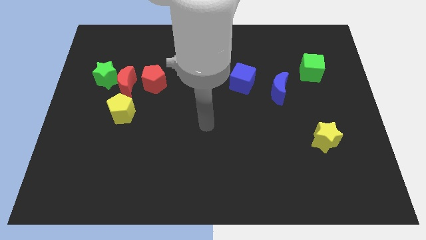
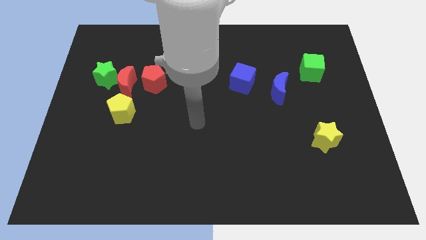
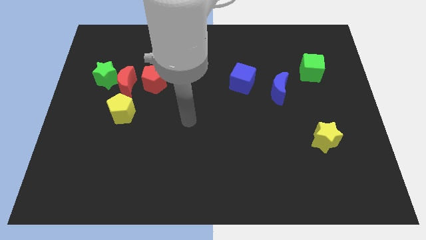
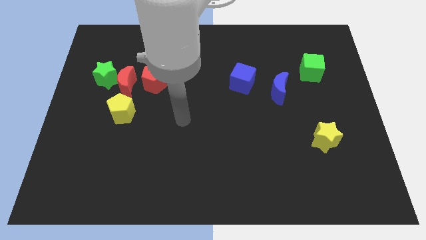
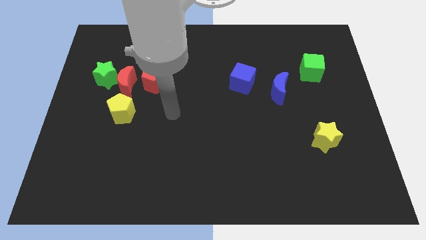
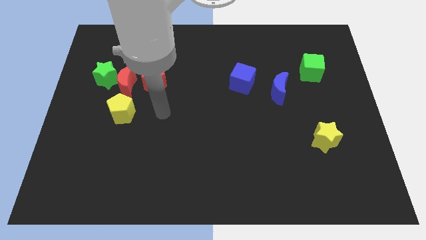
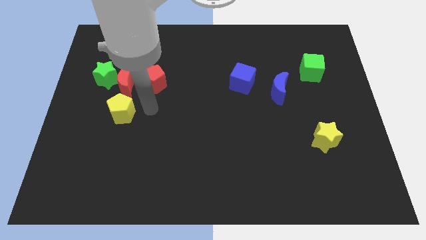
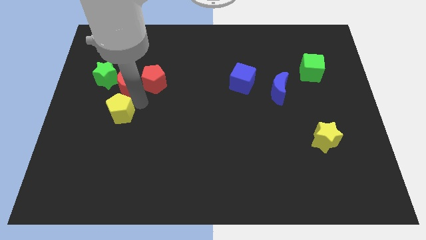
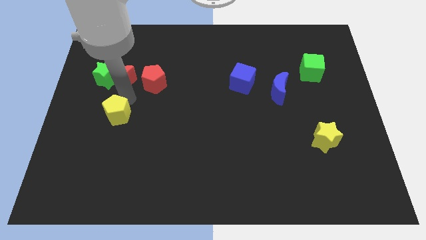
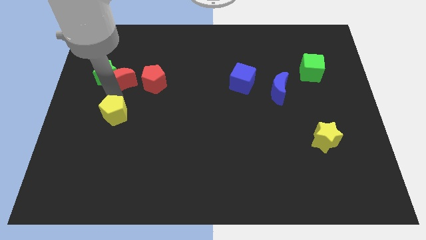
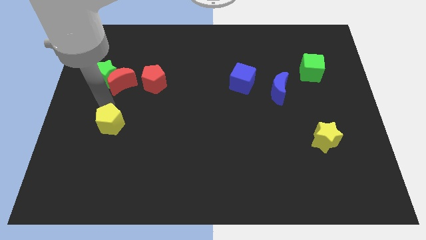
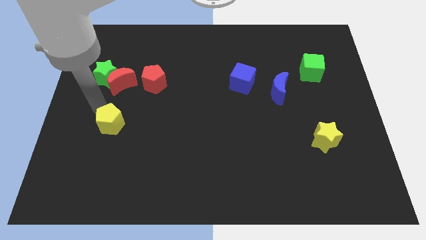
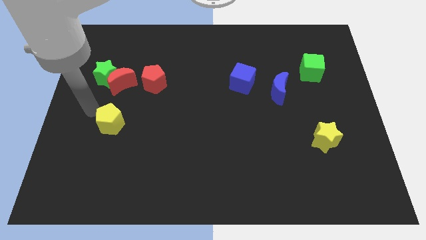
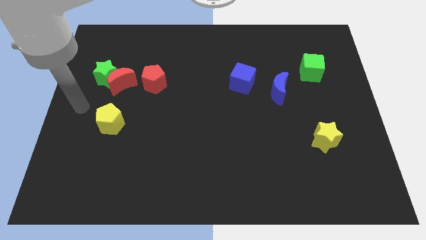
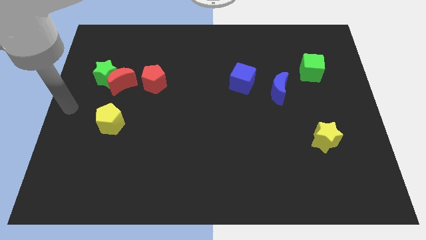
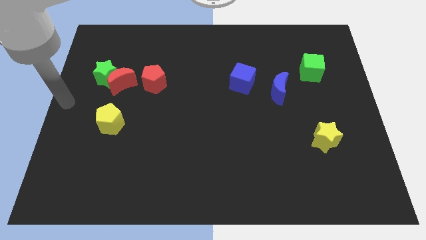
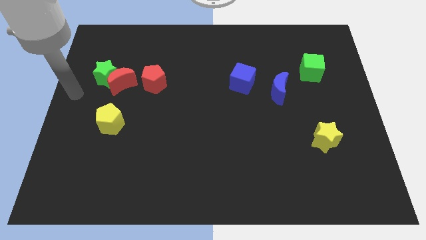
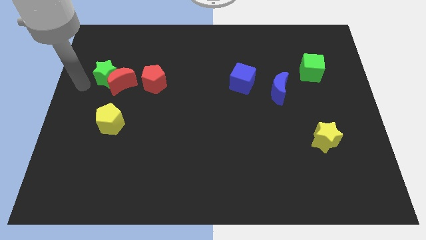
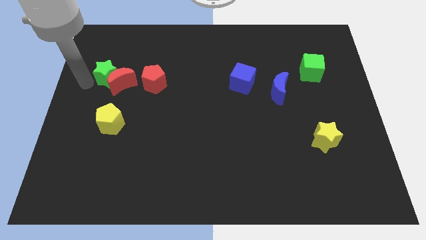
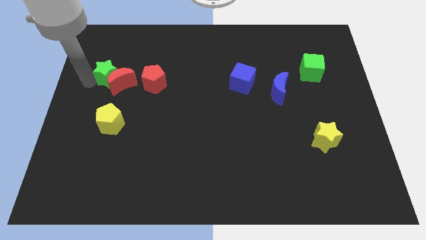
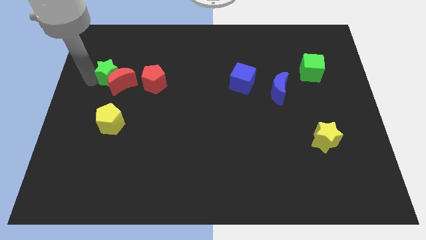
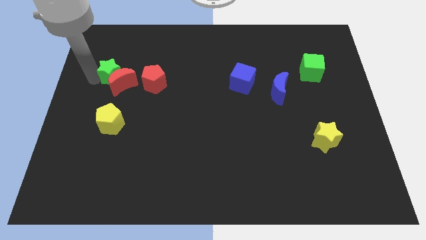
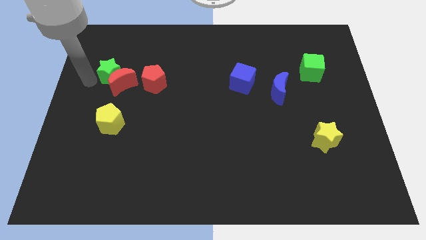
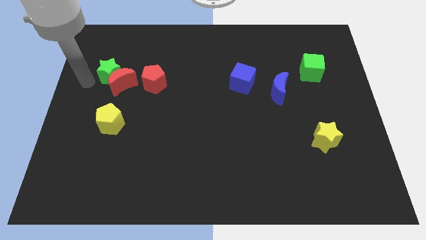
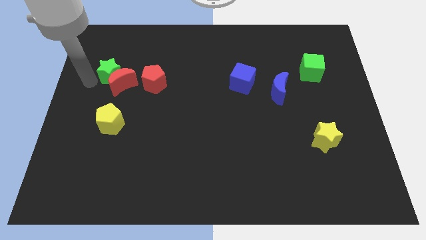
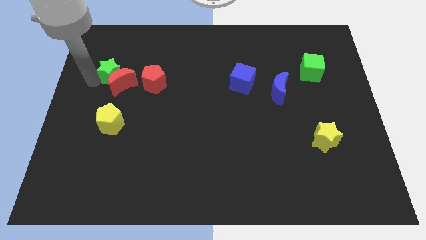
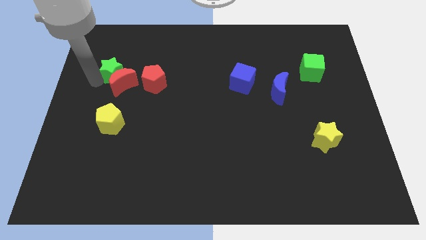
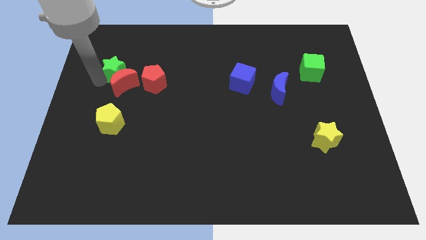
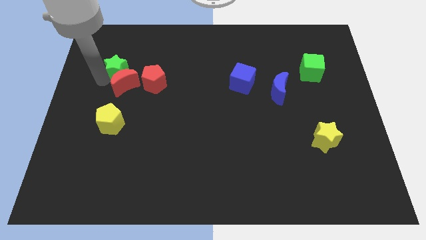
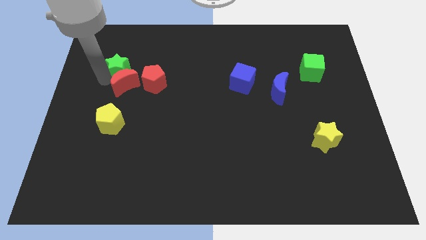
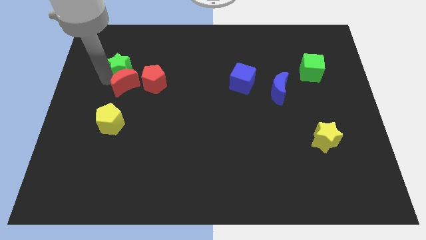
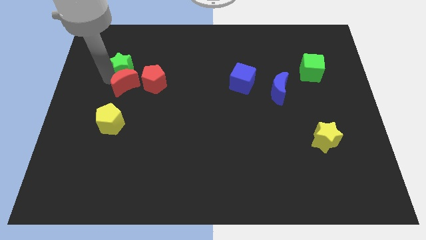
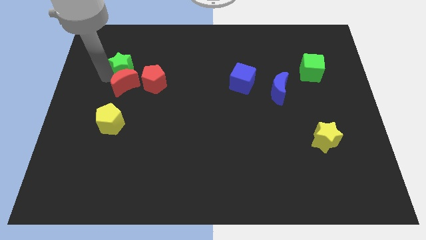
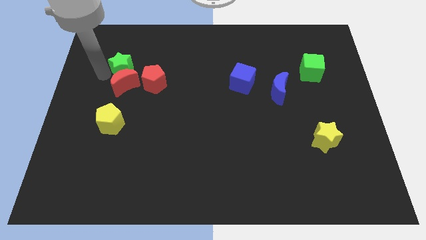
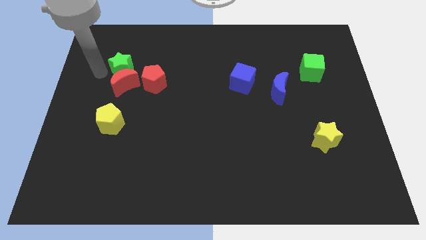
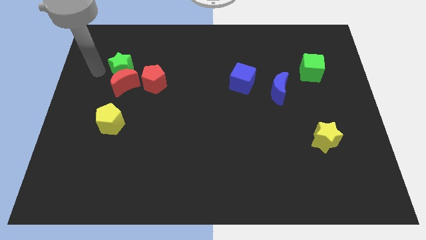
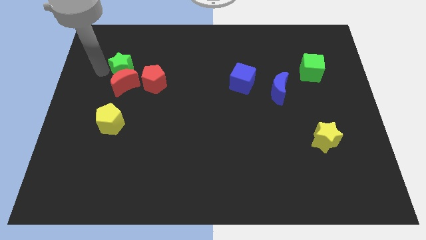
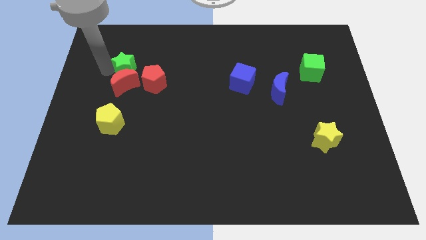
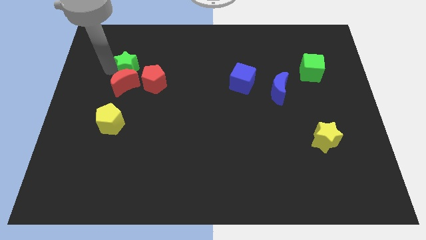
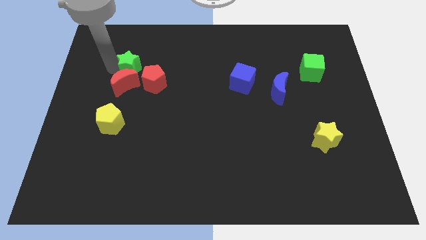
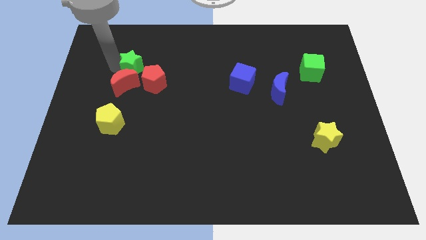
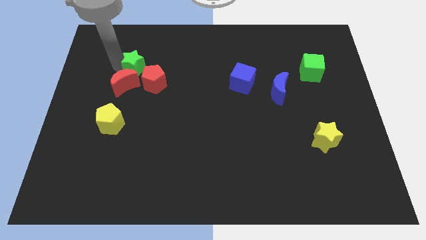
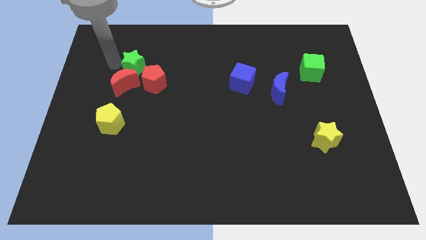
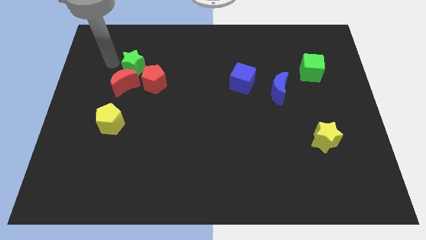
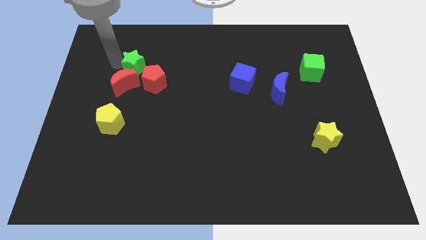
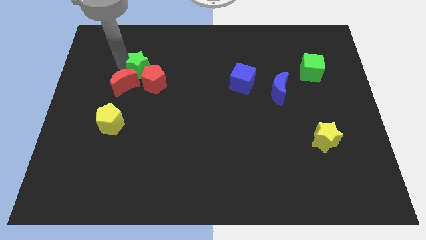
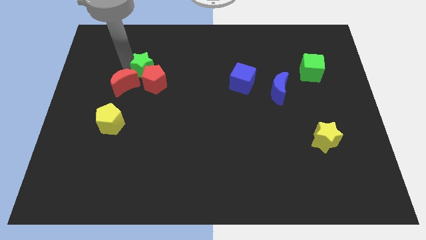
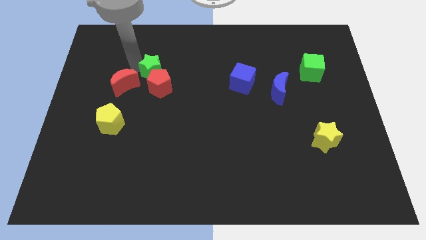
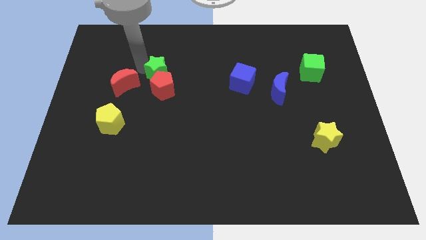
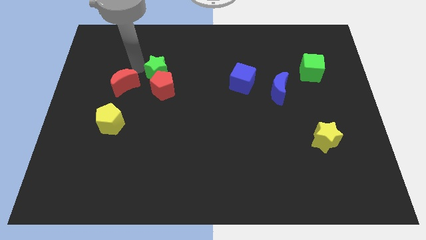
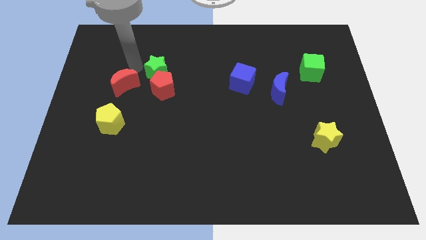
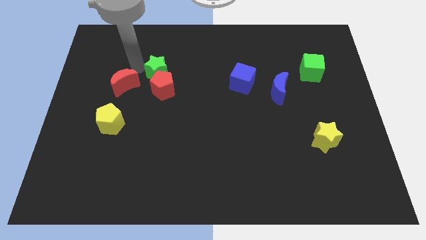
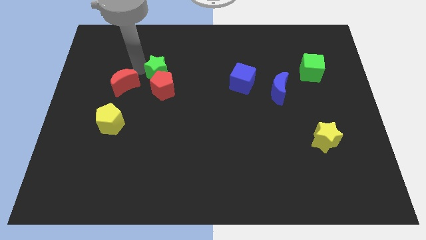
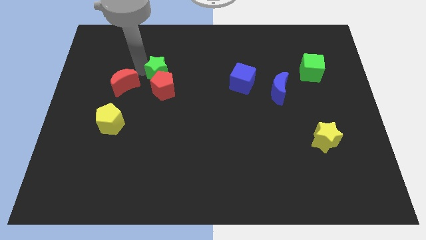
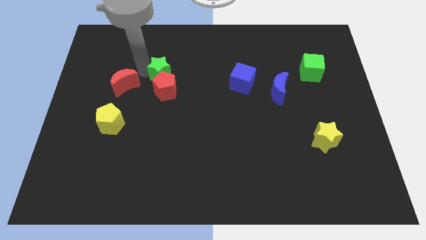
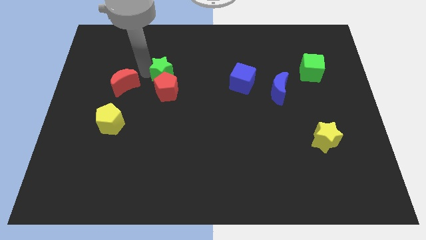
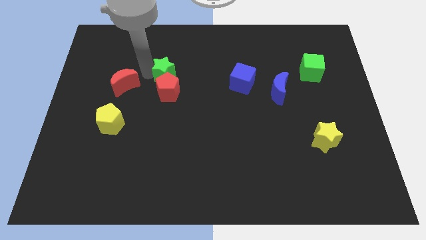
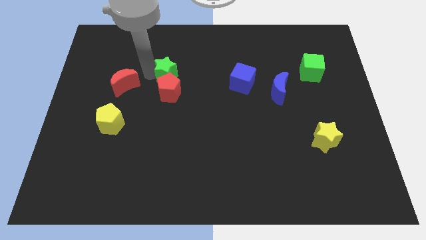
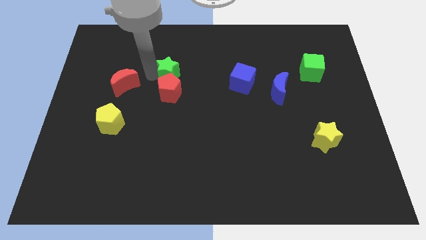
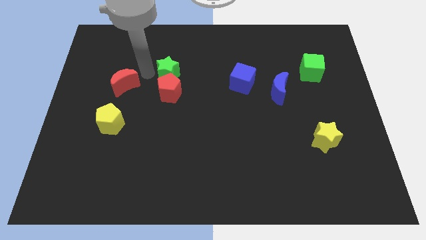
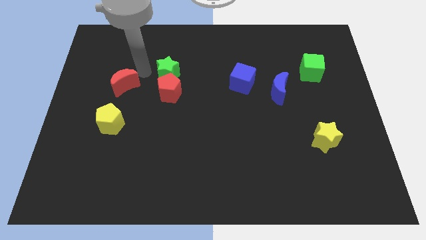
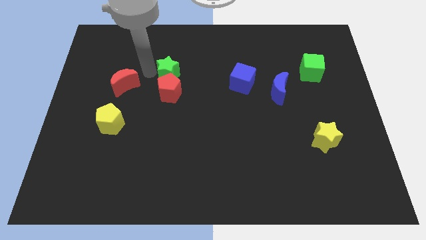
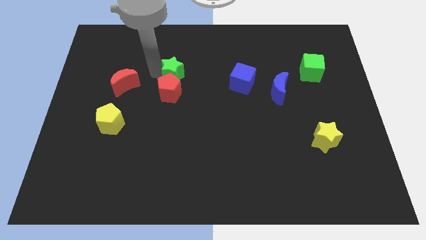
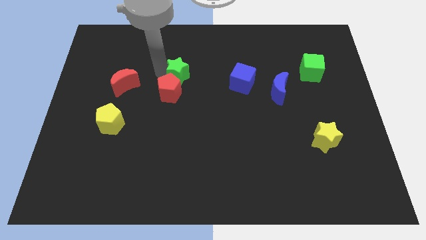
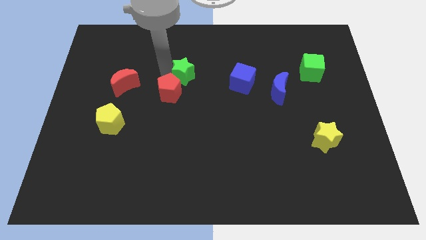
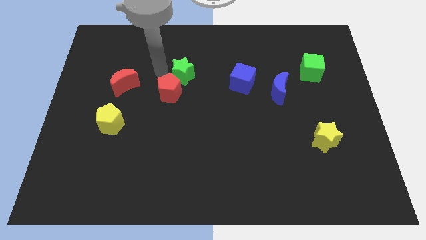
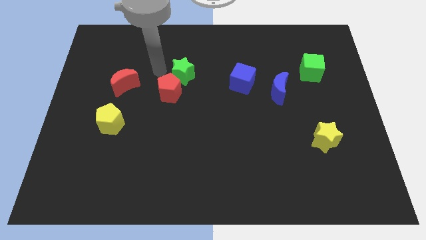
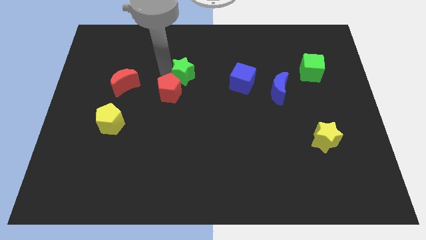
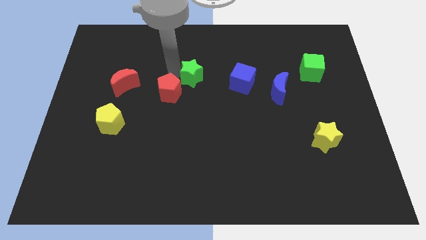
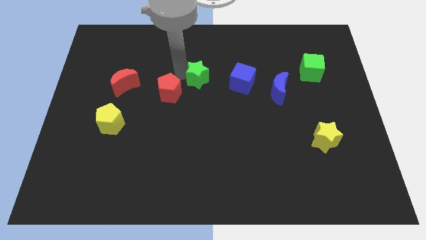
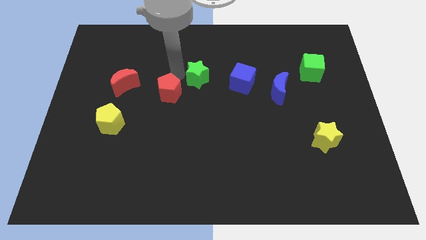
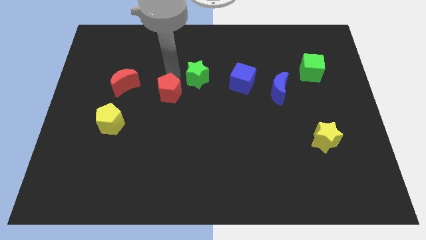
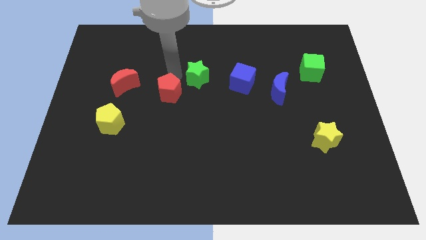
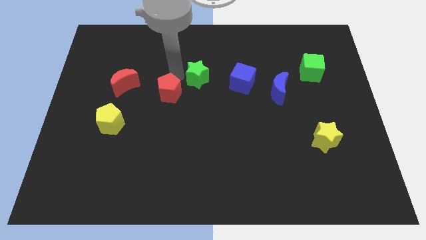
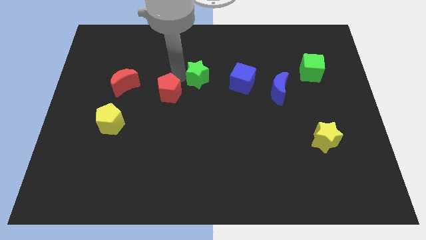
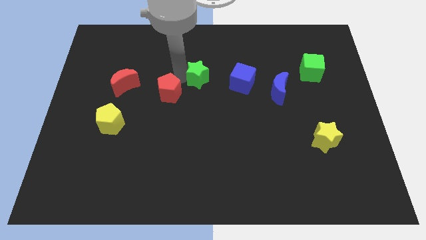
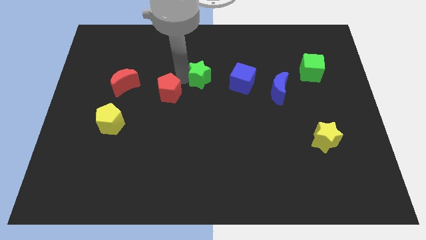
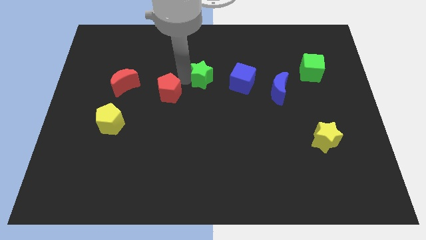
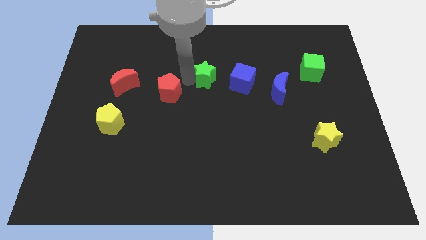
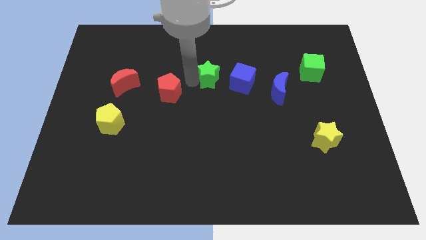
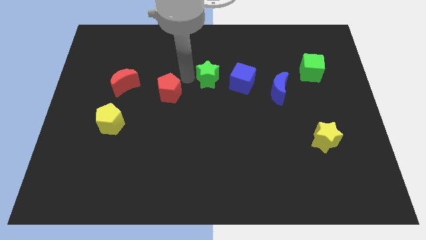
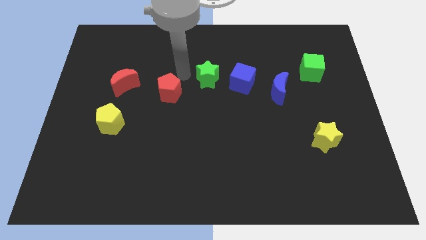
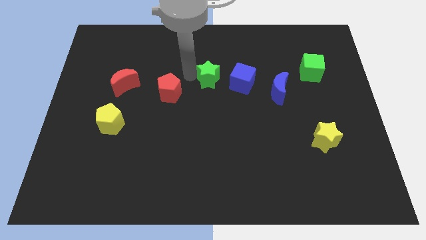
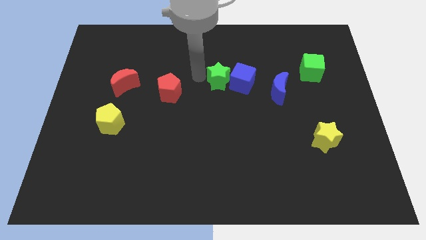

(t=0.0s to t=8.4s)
move the green star to the blue cube
